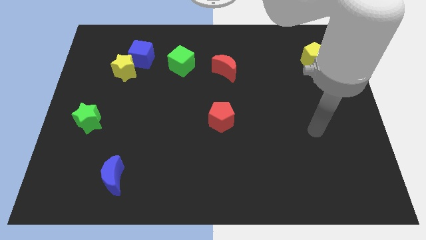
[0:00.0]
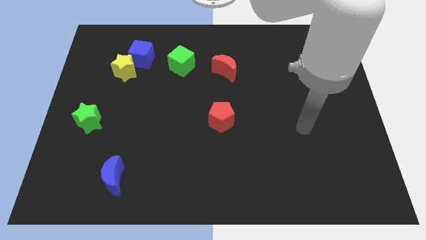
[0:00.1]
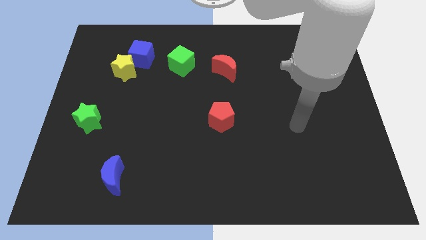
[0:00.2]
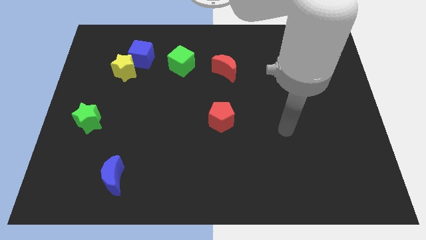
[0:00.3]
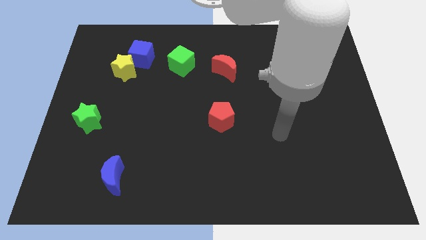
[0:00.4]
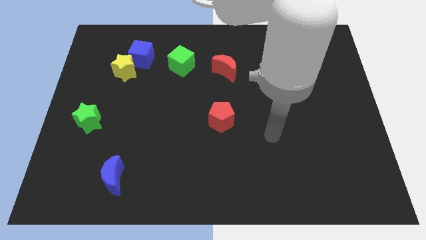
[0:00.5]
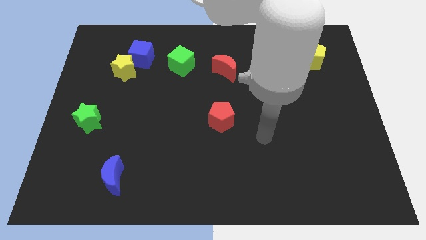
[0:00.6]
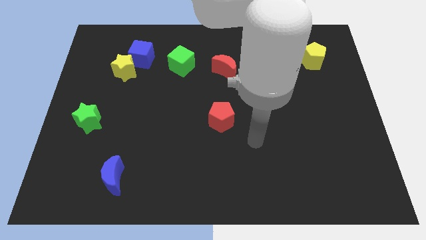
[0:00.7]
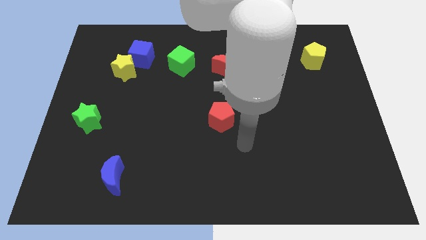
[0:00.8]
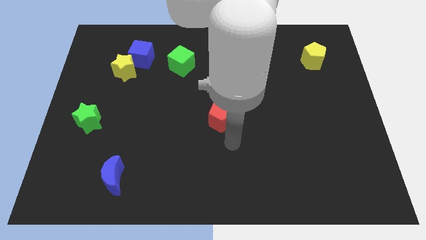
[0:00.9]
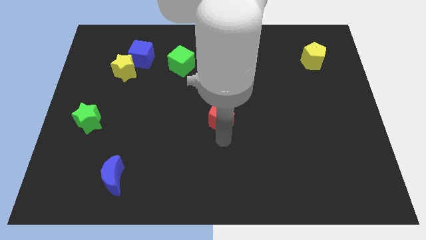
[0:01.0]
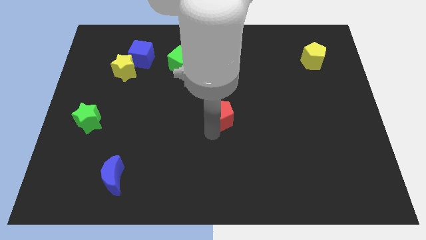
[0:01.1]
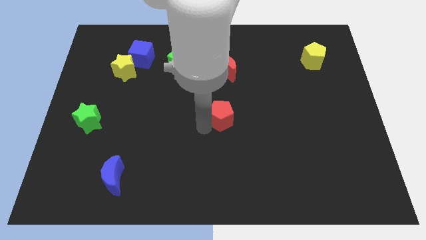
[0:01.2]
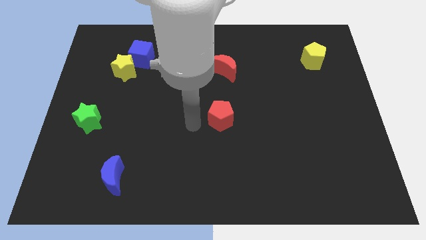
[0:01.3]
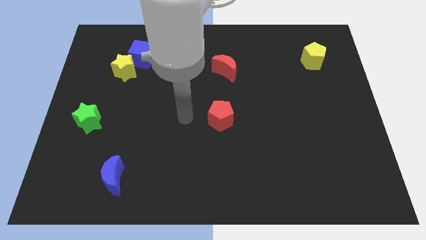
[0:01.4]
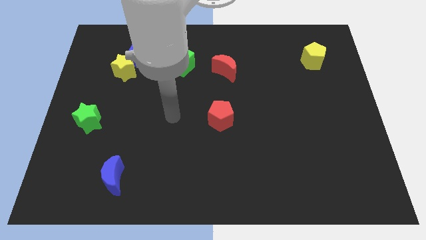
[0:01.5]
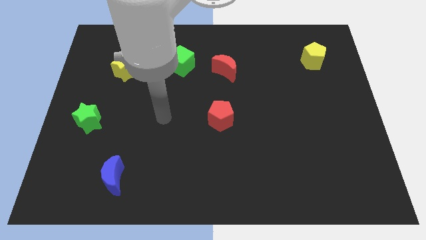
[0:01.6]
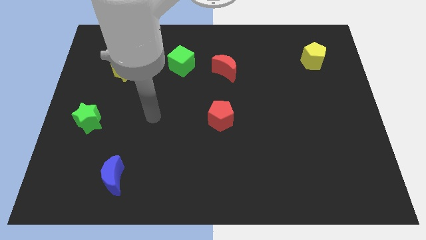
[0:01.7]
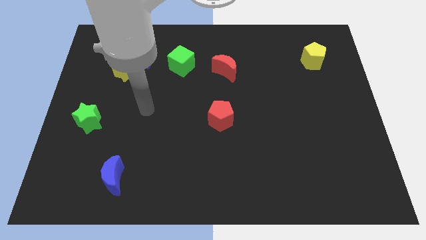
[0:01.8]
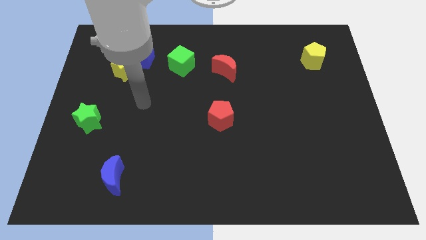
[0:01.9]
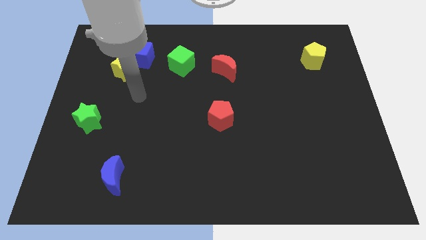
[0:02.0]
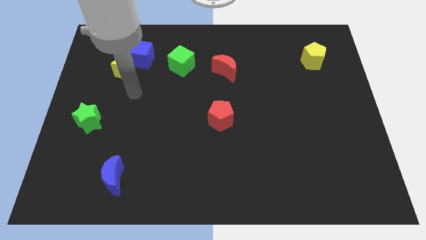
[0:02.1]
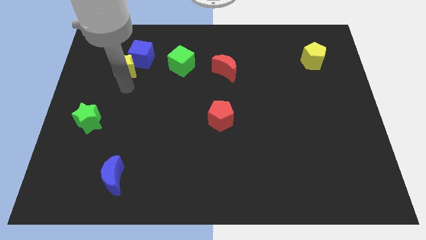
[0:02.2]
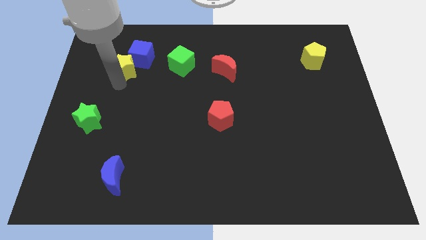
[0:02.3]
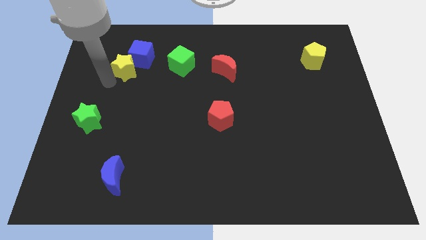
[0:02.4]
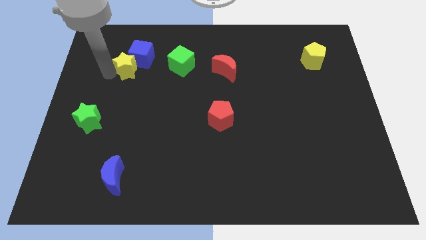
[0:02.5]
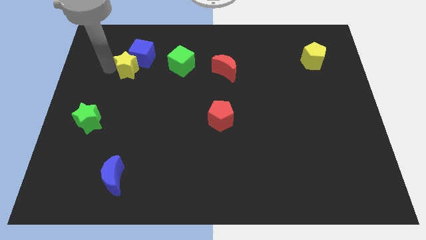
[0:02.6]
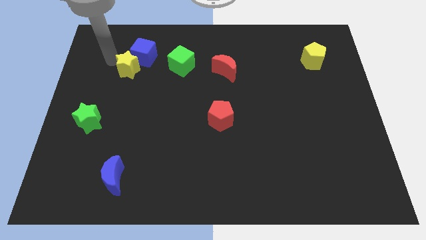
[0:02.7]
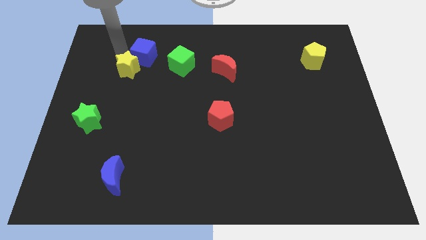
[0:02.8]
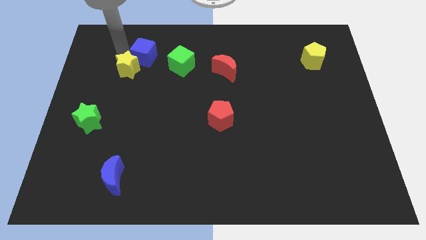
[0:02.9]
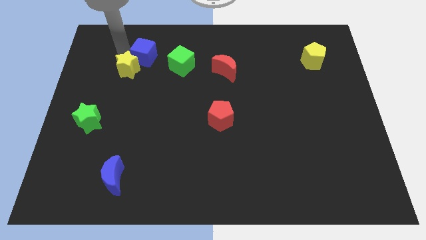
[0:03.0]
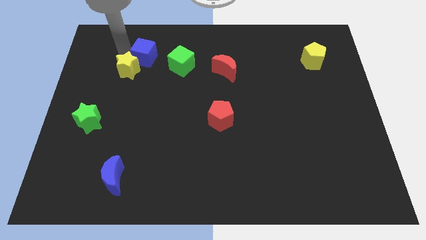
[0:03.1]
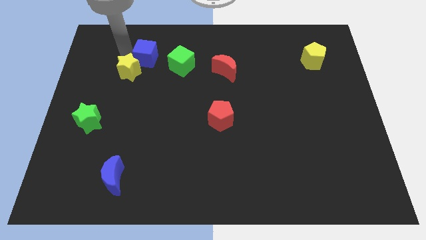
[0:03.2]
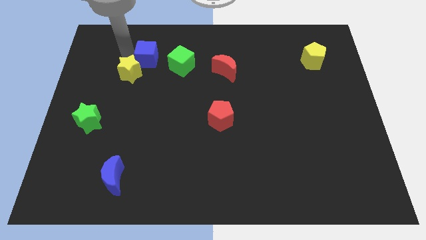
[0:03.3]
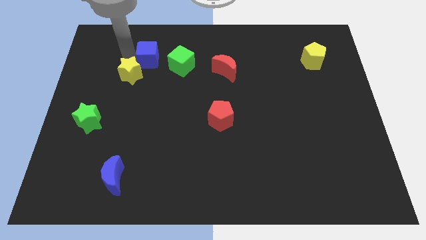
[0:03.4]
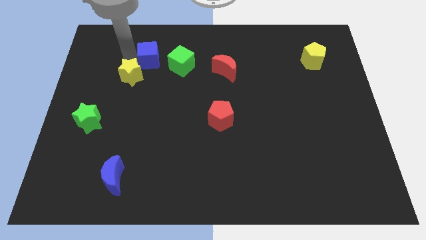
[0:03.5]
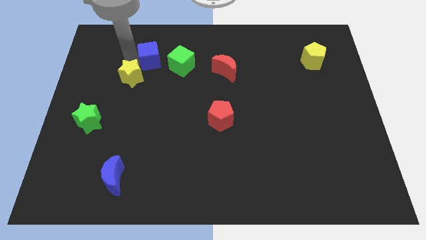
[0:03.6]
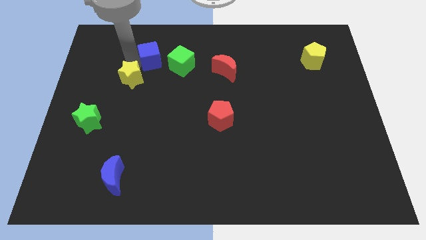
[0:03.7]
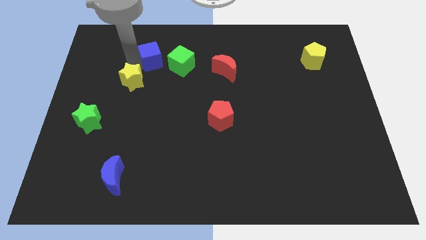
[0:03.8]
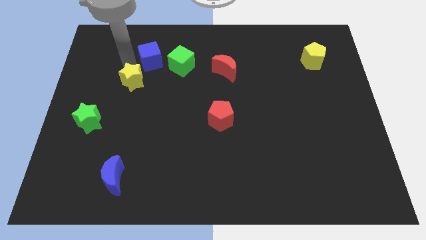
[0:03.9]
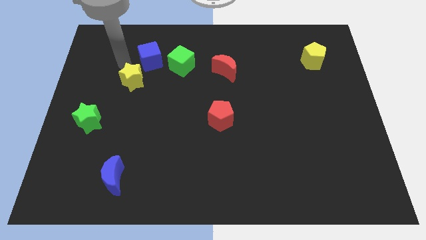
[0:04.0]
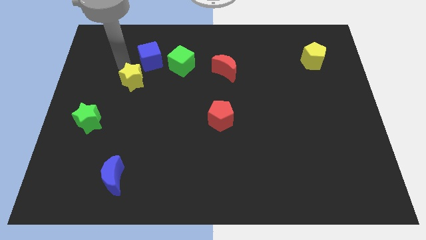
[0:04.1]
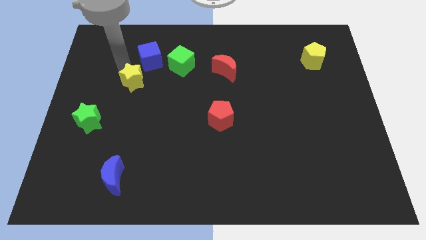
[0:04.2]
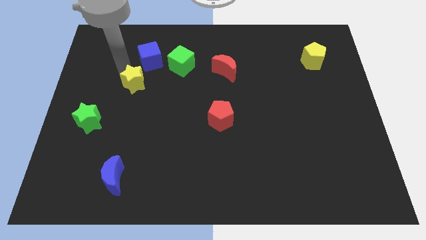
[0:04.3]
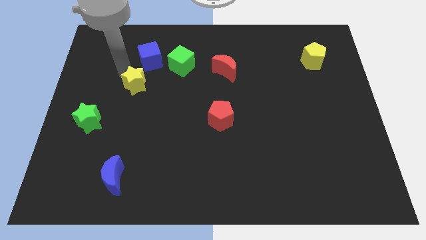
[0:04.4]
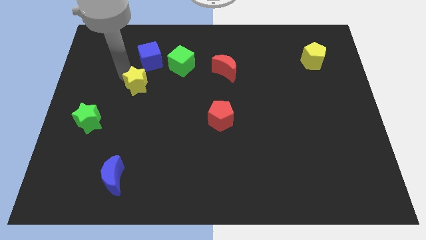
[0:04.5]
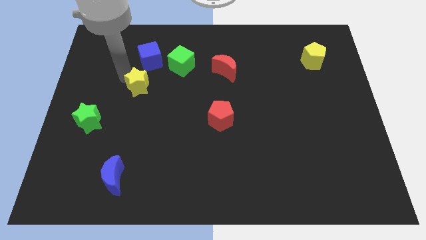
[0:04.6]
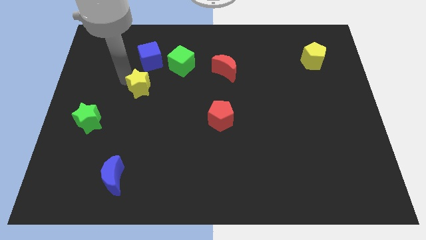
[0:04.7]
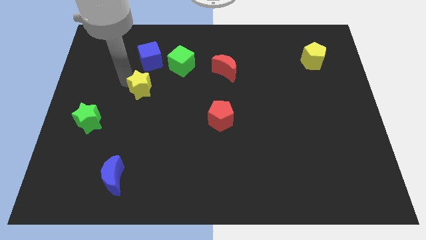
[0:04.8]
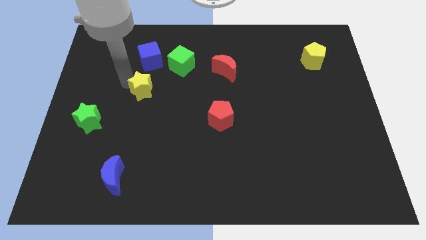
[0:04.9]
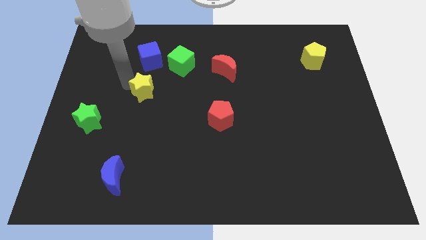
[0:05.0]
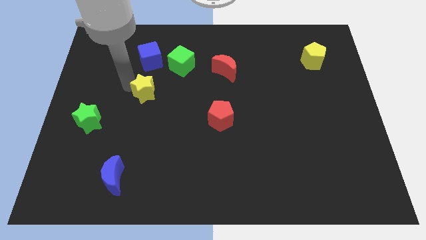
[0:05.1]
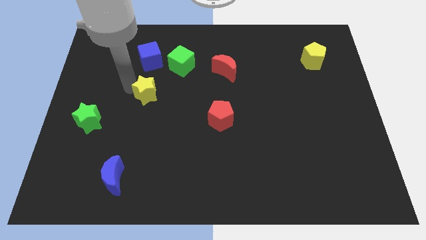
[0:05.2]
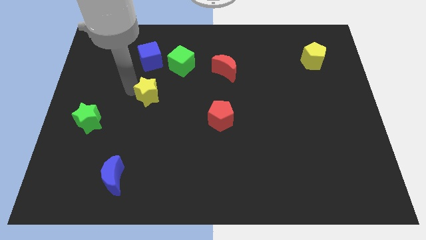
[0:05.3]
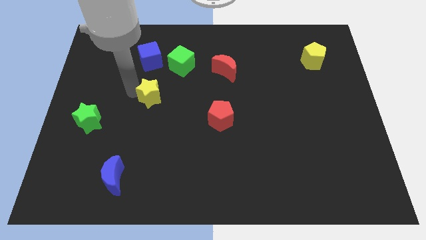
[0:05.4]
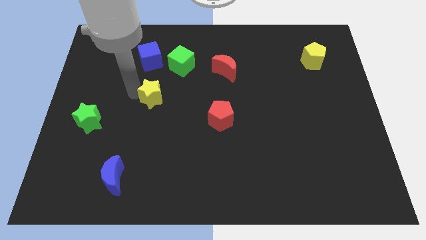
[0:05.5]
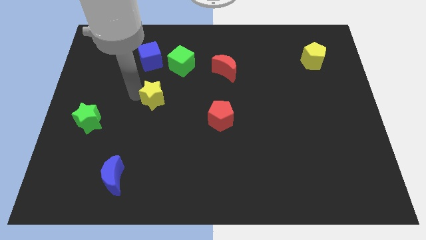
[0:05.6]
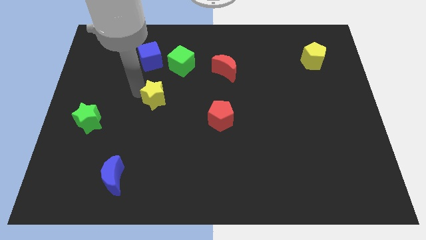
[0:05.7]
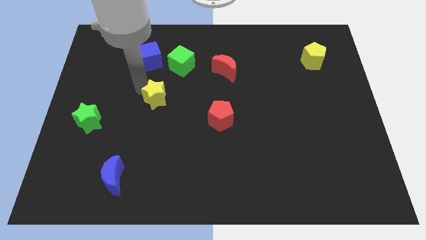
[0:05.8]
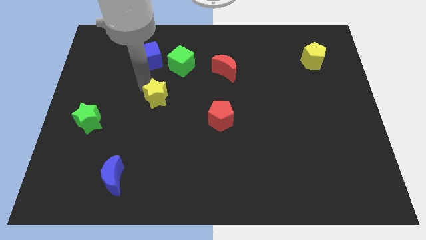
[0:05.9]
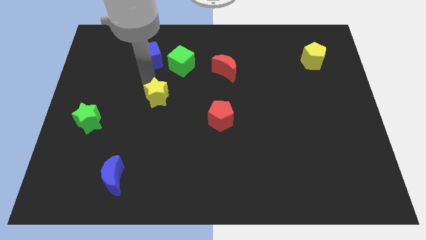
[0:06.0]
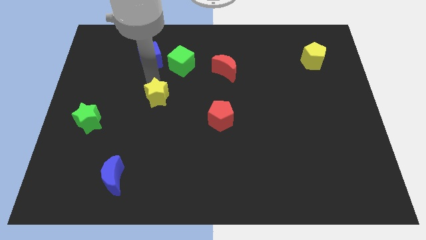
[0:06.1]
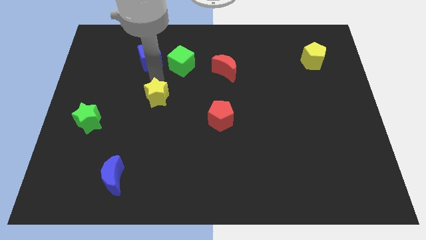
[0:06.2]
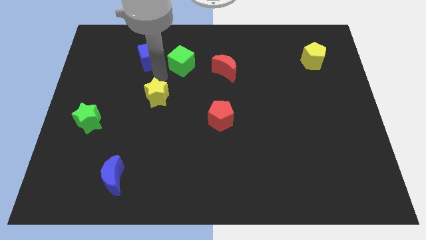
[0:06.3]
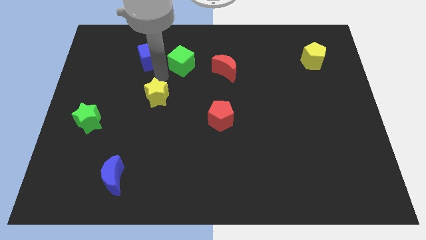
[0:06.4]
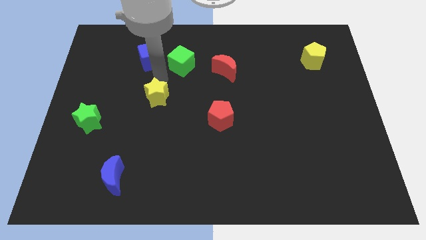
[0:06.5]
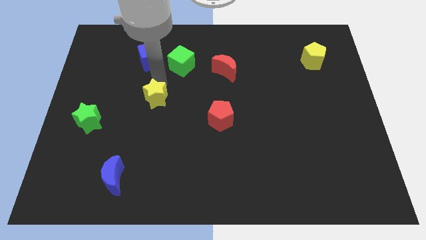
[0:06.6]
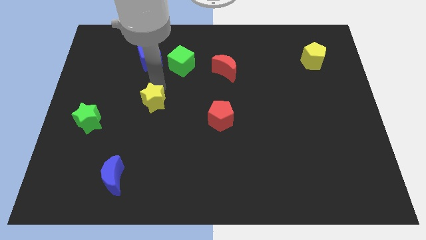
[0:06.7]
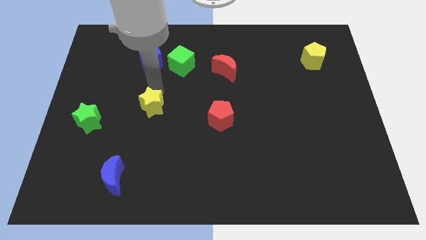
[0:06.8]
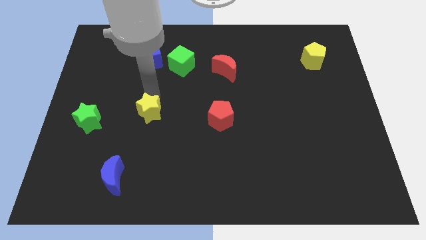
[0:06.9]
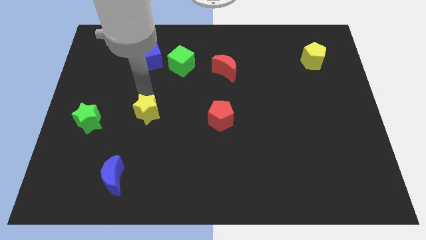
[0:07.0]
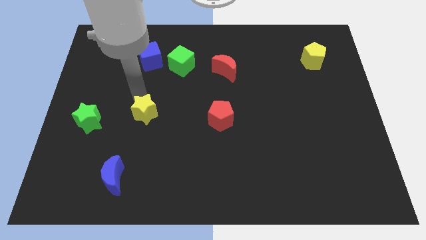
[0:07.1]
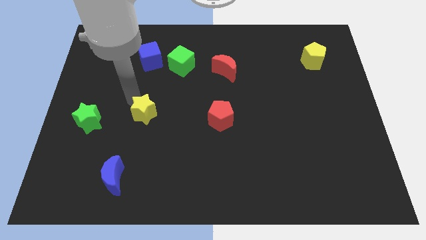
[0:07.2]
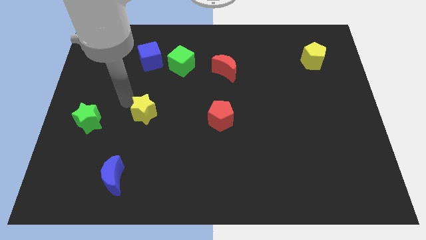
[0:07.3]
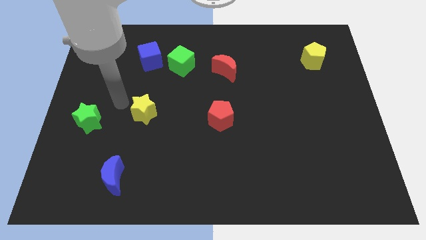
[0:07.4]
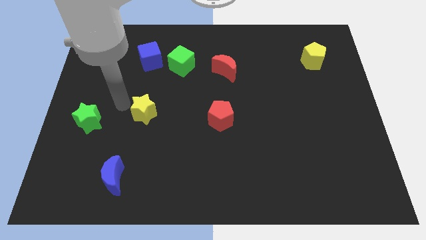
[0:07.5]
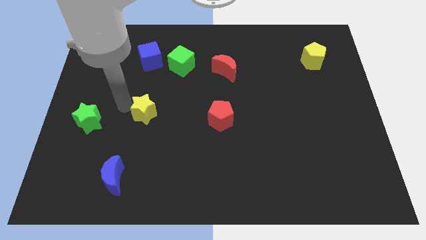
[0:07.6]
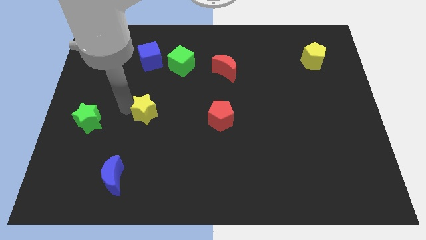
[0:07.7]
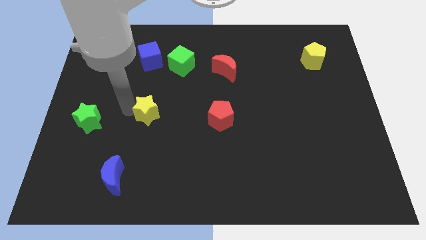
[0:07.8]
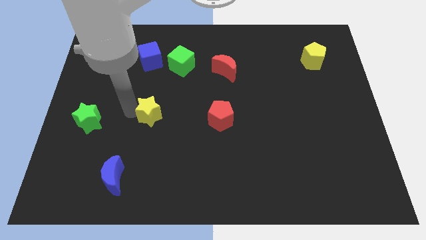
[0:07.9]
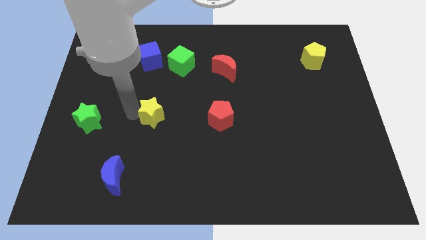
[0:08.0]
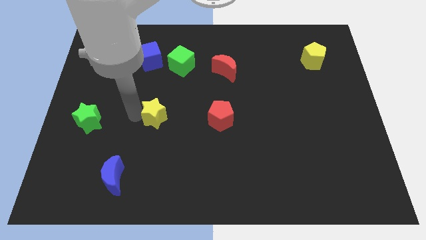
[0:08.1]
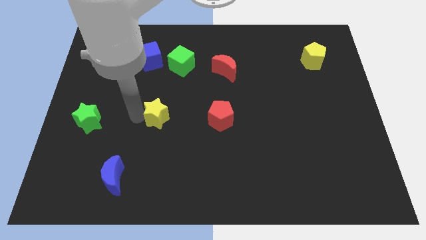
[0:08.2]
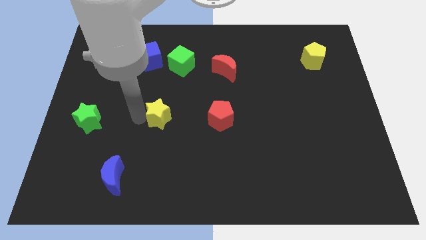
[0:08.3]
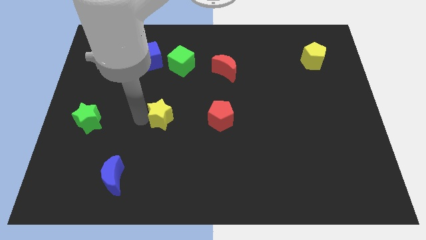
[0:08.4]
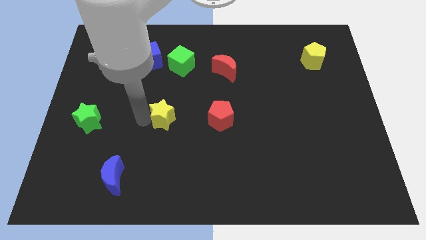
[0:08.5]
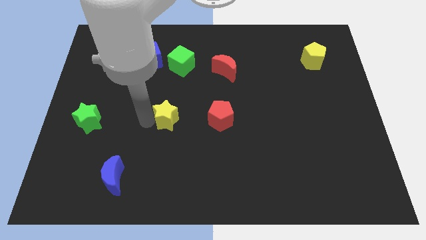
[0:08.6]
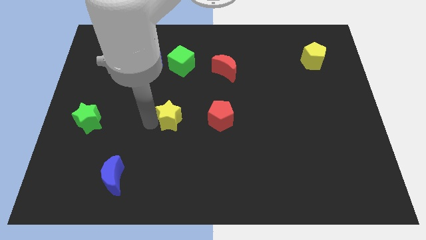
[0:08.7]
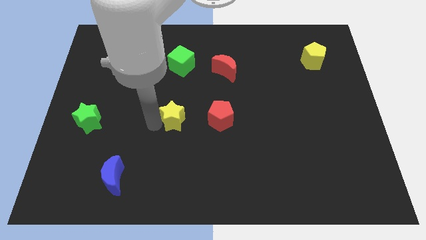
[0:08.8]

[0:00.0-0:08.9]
slide the yellow star down and to the right
